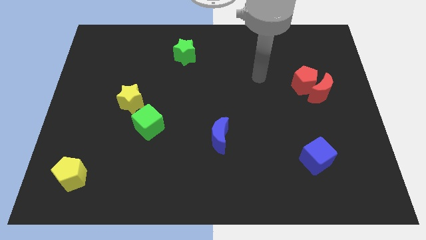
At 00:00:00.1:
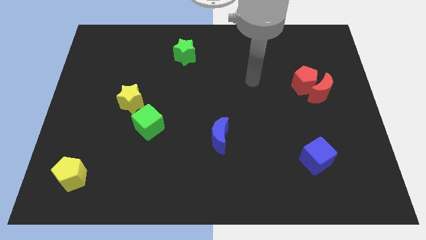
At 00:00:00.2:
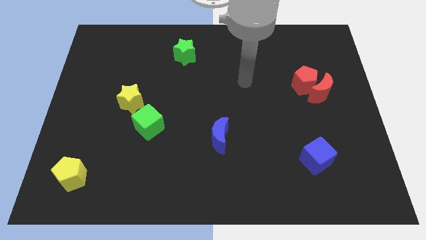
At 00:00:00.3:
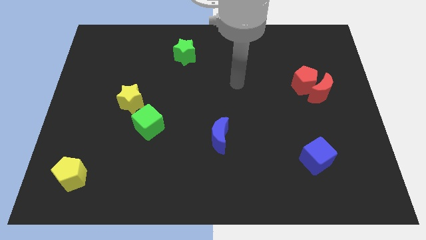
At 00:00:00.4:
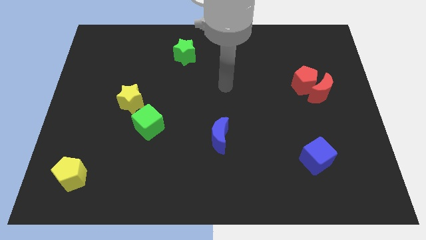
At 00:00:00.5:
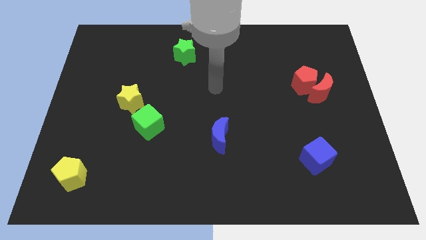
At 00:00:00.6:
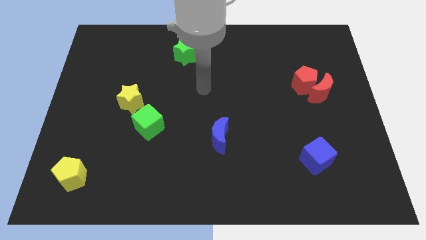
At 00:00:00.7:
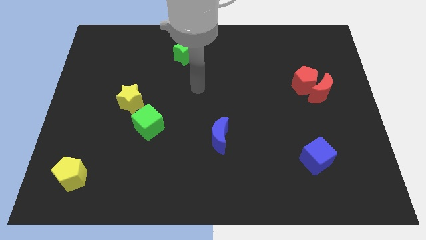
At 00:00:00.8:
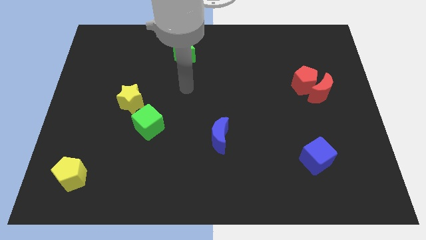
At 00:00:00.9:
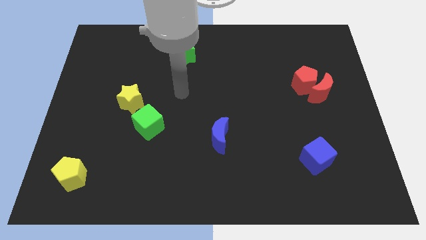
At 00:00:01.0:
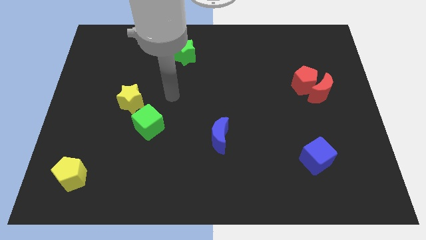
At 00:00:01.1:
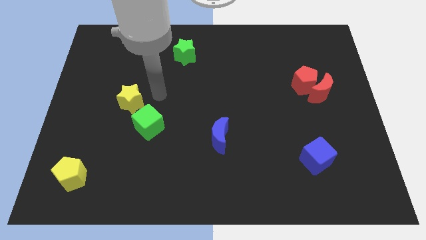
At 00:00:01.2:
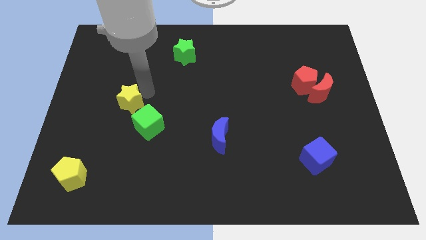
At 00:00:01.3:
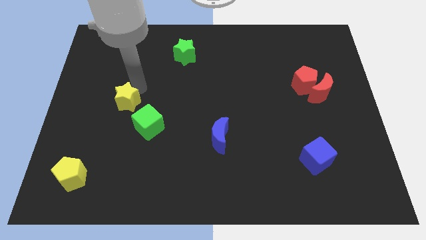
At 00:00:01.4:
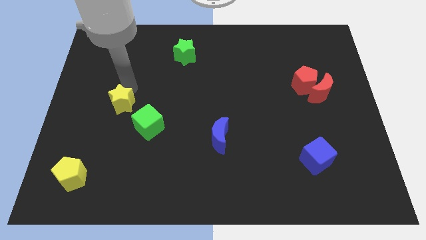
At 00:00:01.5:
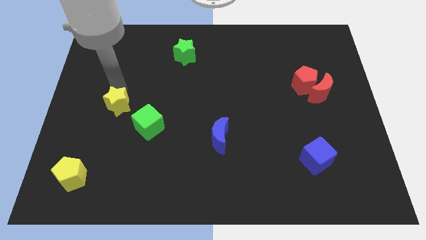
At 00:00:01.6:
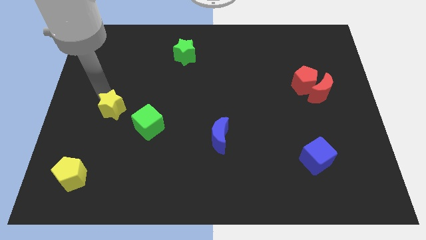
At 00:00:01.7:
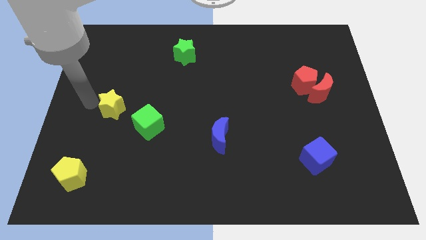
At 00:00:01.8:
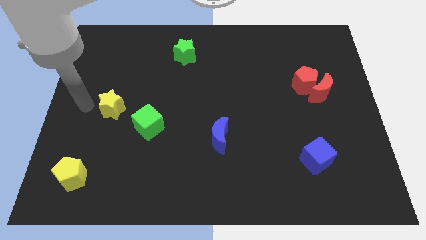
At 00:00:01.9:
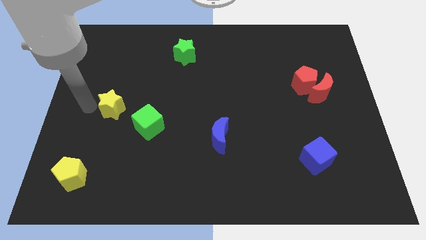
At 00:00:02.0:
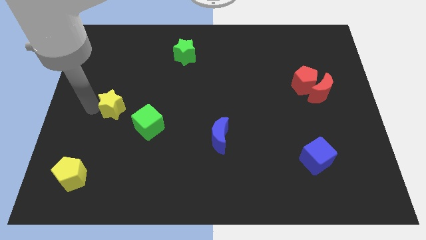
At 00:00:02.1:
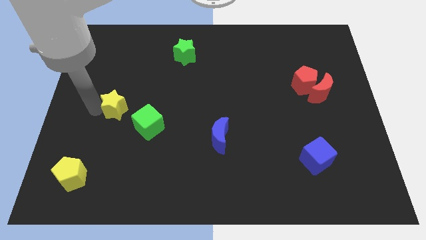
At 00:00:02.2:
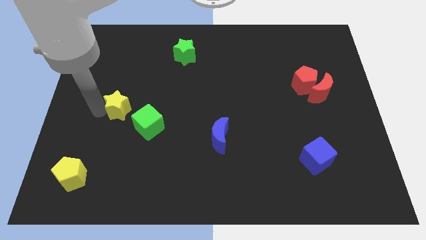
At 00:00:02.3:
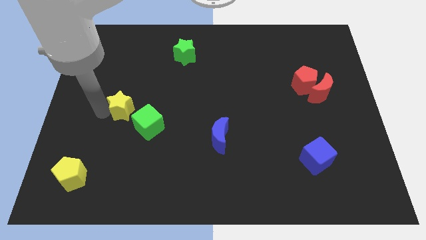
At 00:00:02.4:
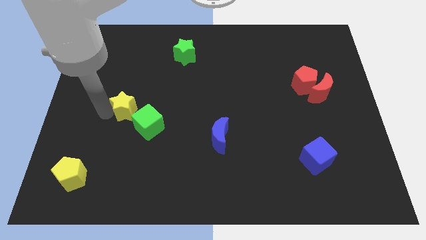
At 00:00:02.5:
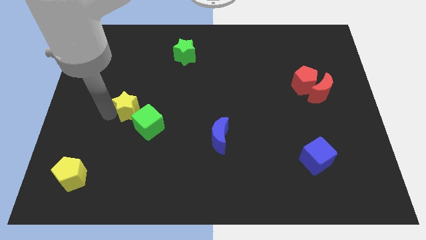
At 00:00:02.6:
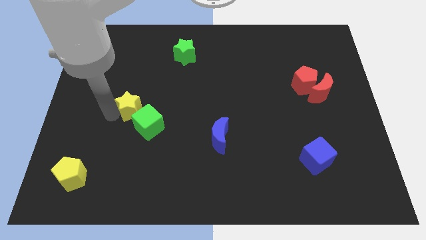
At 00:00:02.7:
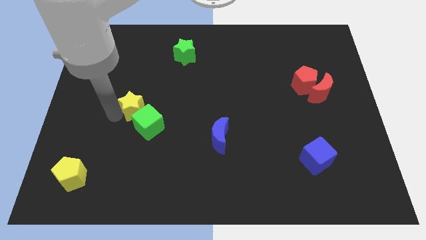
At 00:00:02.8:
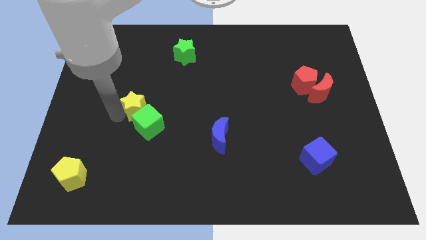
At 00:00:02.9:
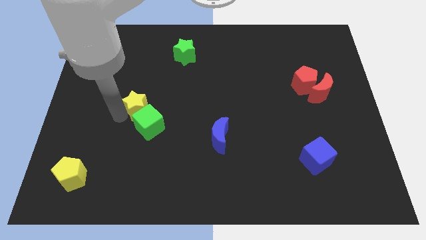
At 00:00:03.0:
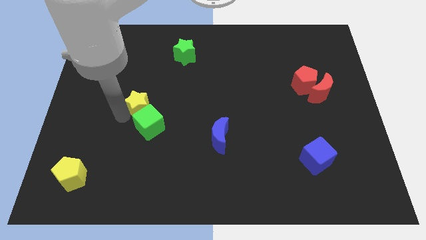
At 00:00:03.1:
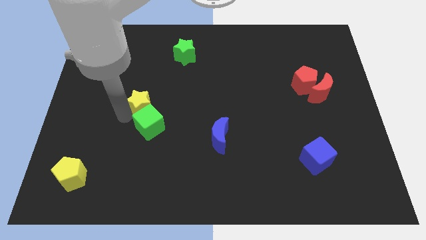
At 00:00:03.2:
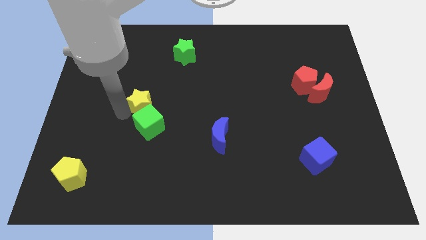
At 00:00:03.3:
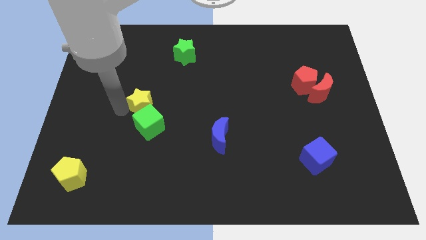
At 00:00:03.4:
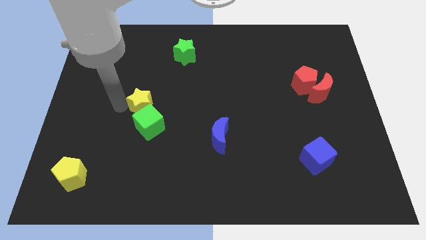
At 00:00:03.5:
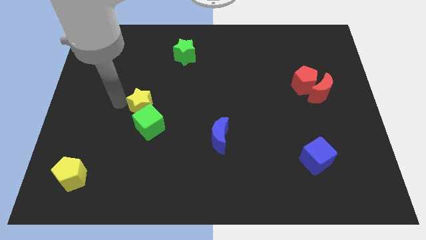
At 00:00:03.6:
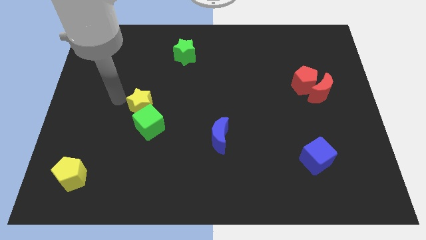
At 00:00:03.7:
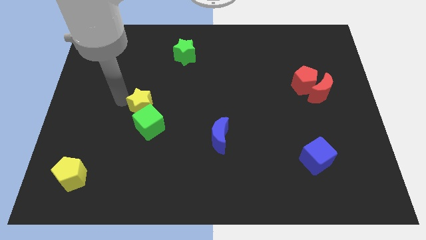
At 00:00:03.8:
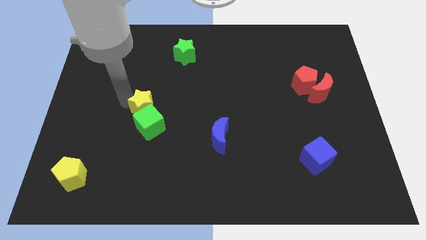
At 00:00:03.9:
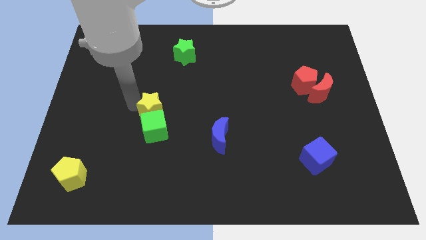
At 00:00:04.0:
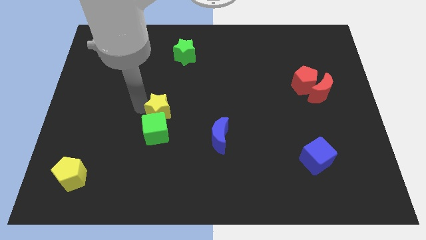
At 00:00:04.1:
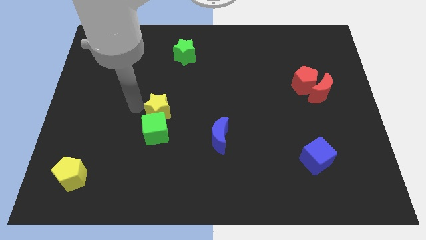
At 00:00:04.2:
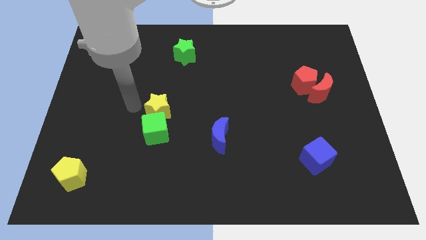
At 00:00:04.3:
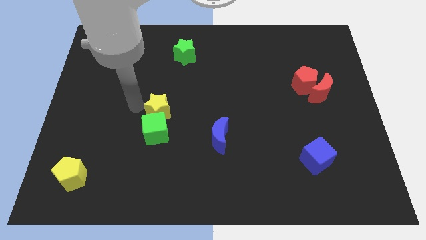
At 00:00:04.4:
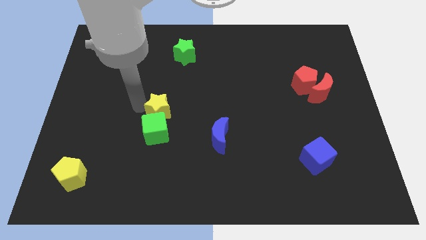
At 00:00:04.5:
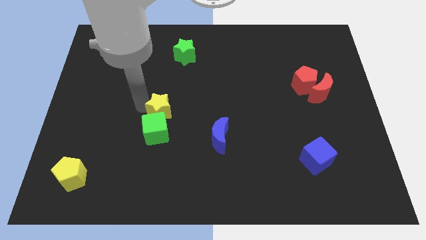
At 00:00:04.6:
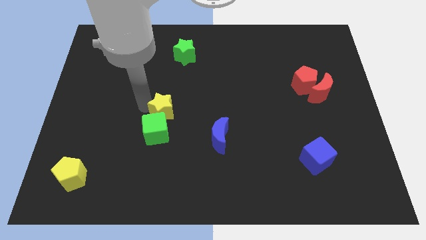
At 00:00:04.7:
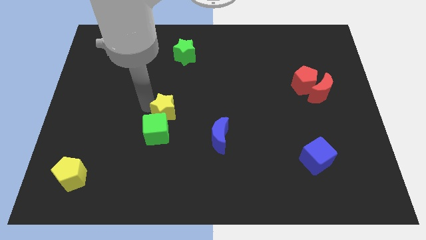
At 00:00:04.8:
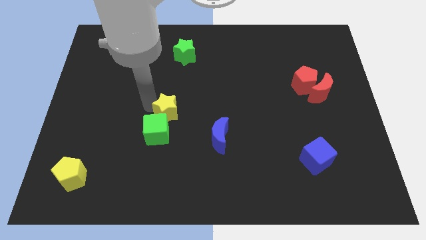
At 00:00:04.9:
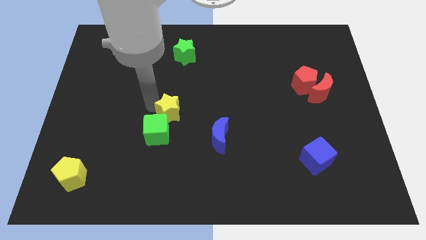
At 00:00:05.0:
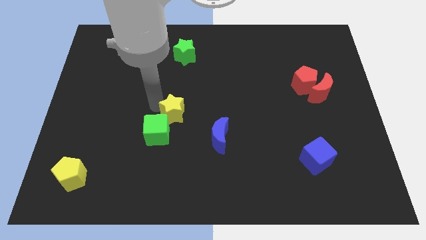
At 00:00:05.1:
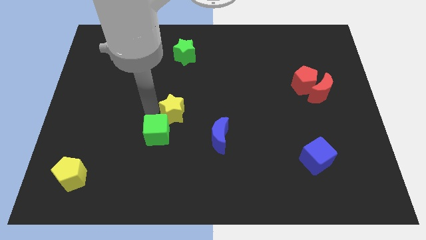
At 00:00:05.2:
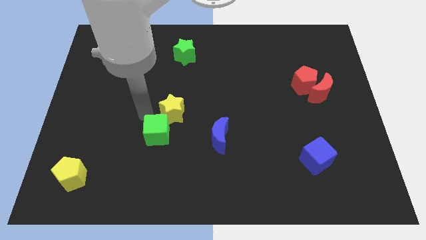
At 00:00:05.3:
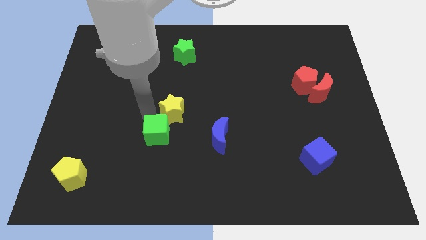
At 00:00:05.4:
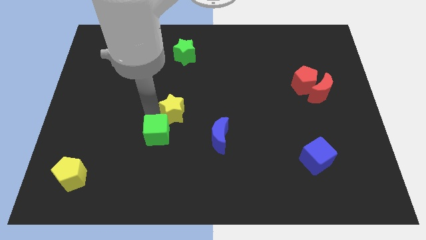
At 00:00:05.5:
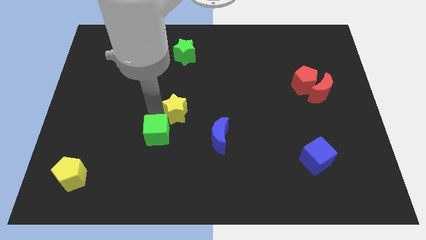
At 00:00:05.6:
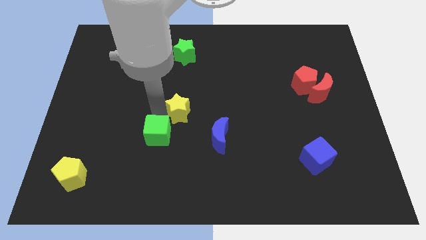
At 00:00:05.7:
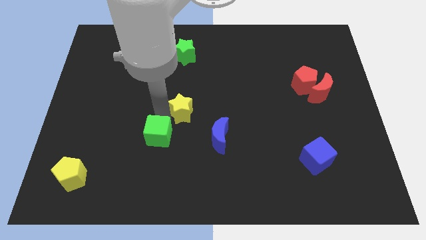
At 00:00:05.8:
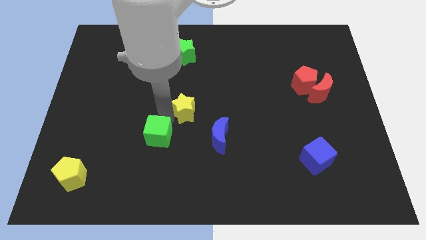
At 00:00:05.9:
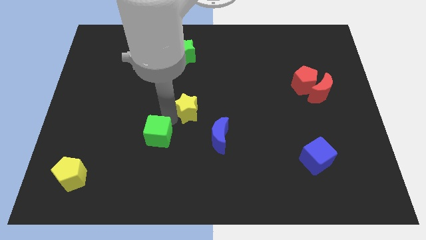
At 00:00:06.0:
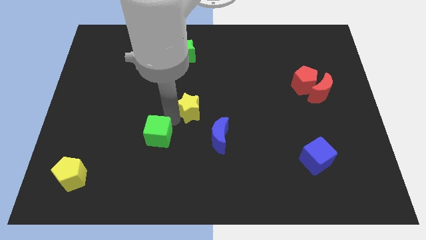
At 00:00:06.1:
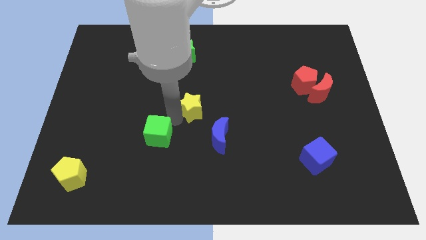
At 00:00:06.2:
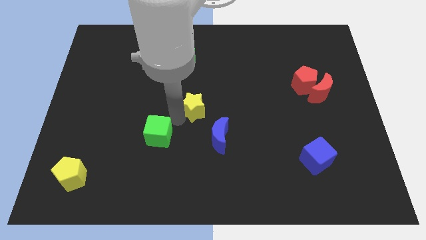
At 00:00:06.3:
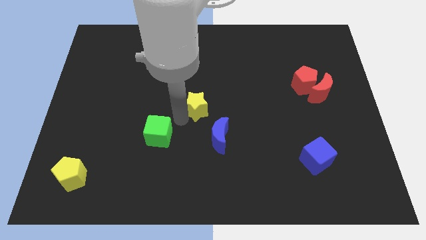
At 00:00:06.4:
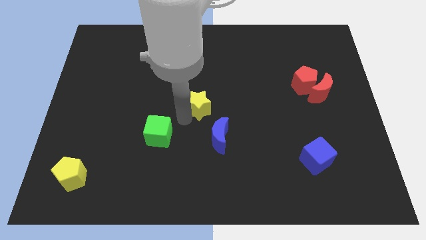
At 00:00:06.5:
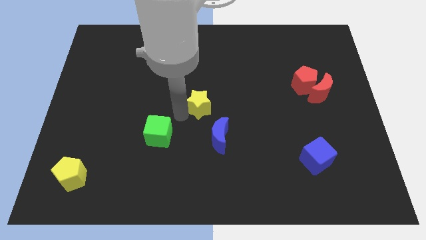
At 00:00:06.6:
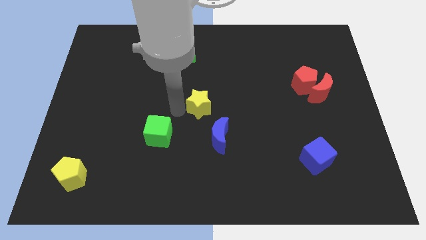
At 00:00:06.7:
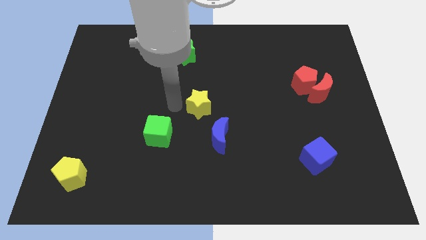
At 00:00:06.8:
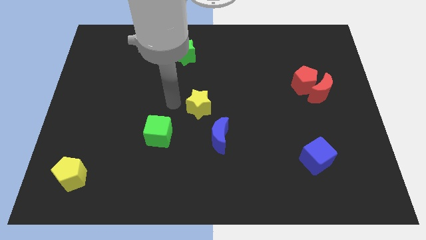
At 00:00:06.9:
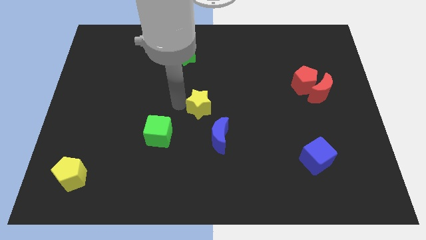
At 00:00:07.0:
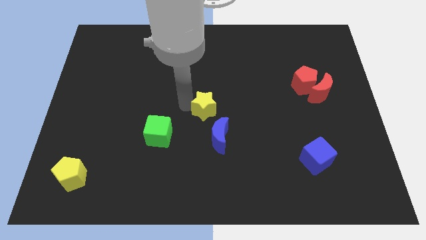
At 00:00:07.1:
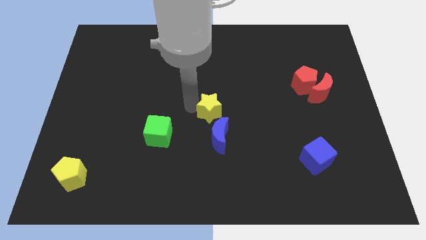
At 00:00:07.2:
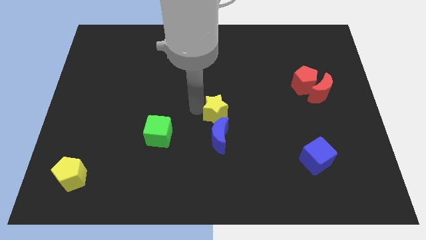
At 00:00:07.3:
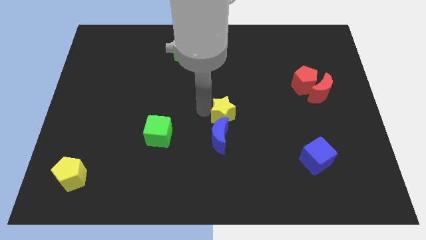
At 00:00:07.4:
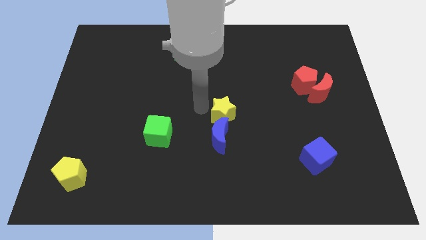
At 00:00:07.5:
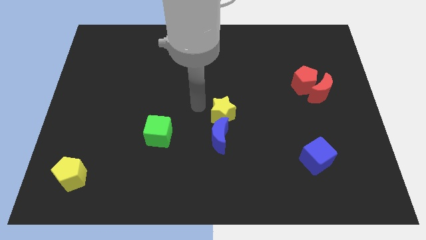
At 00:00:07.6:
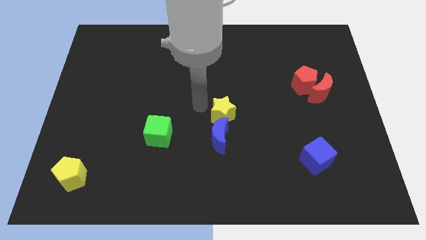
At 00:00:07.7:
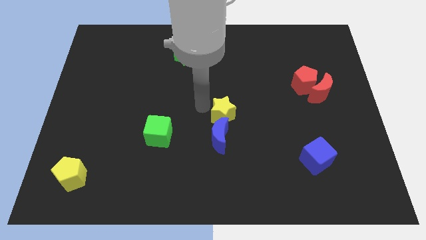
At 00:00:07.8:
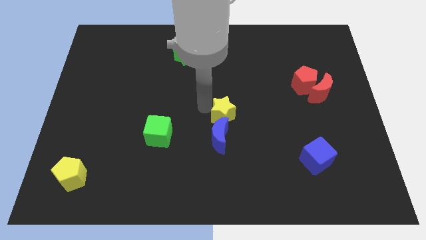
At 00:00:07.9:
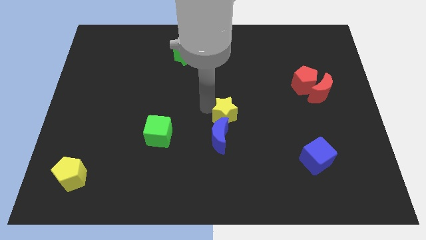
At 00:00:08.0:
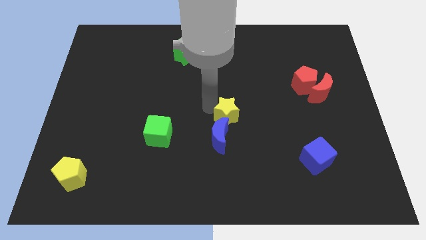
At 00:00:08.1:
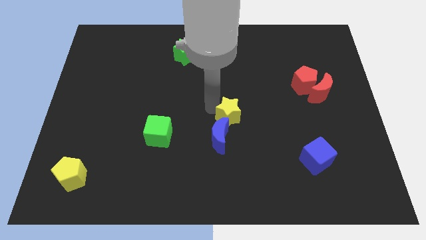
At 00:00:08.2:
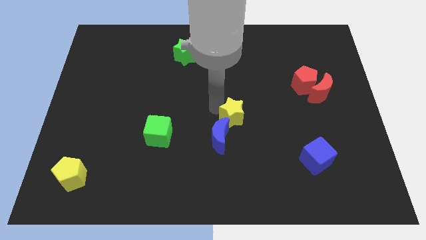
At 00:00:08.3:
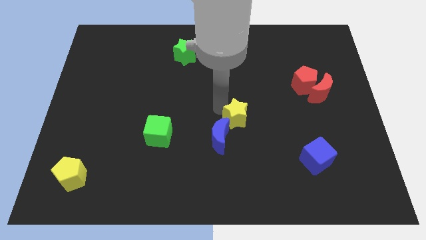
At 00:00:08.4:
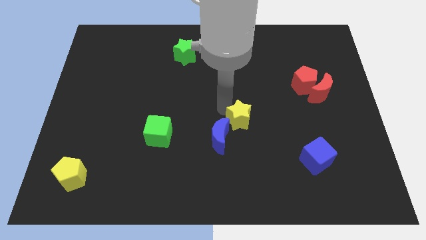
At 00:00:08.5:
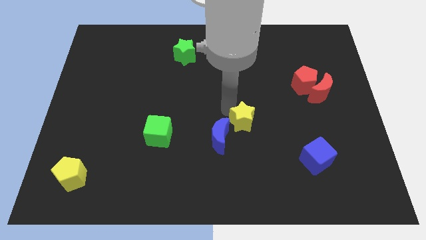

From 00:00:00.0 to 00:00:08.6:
slide the yellow star to the right of the blue moon
